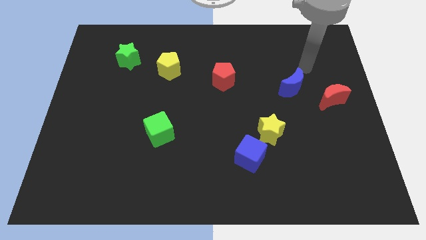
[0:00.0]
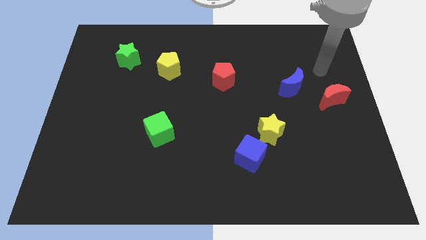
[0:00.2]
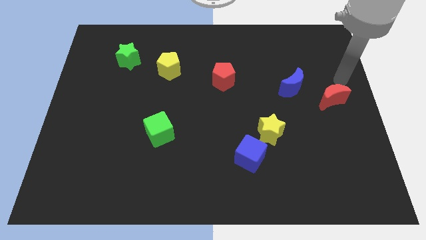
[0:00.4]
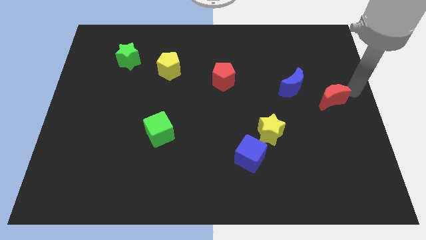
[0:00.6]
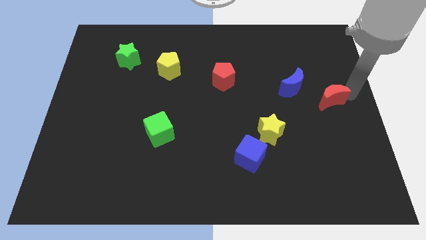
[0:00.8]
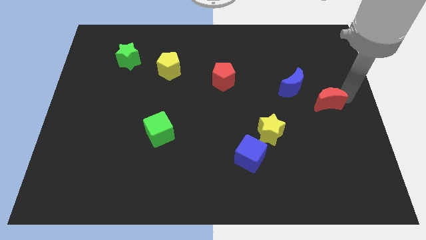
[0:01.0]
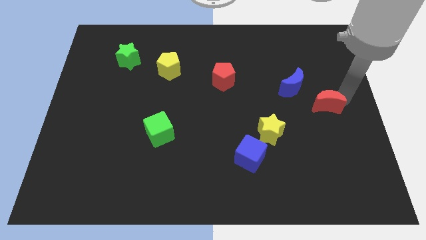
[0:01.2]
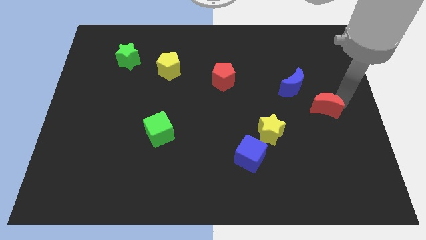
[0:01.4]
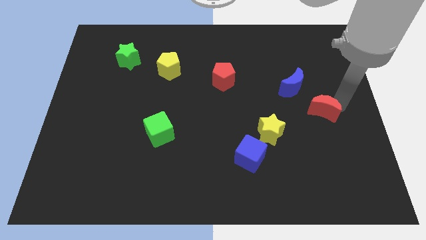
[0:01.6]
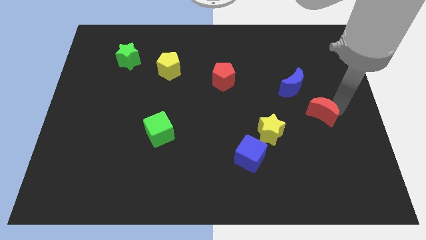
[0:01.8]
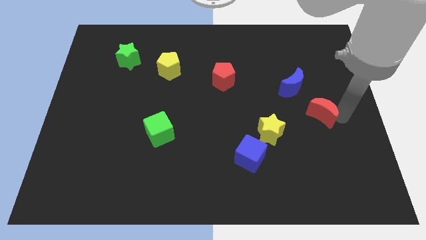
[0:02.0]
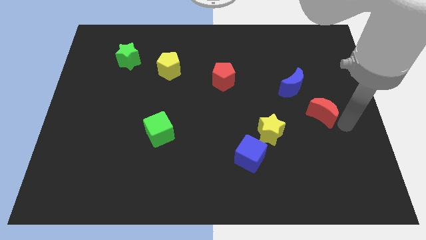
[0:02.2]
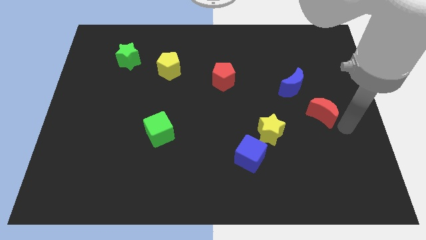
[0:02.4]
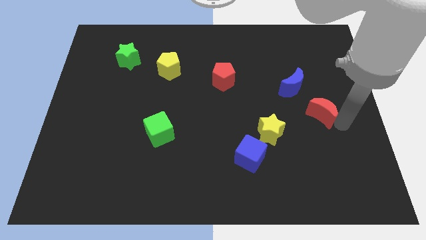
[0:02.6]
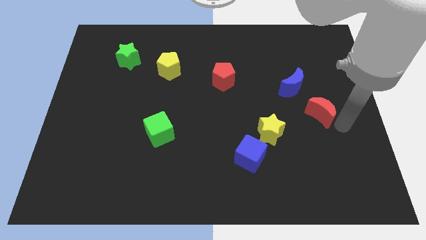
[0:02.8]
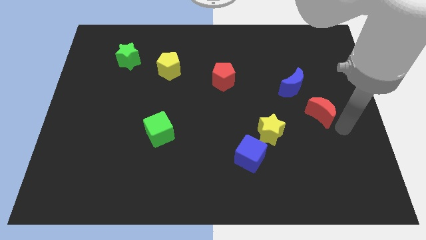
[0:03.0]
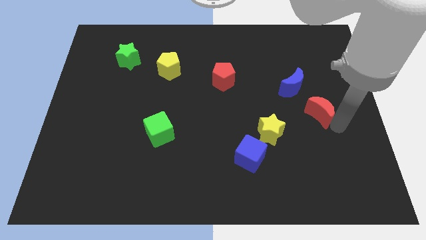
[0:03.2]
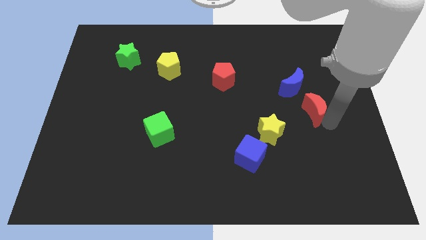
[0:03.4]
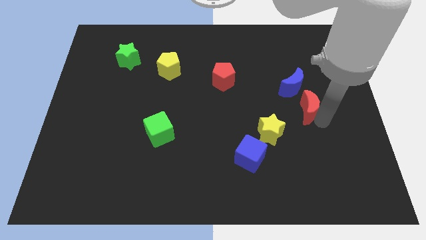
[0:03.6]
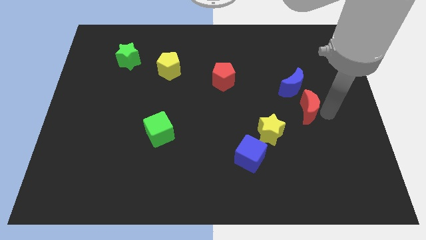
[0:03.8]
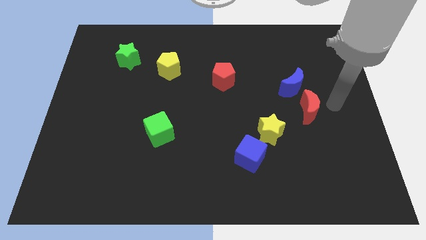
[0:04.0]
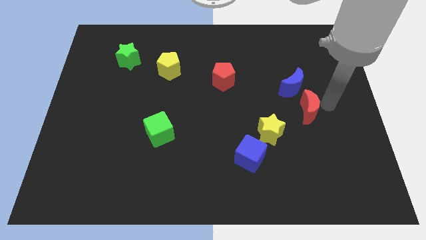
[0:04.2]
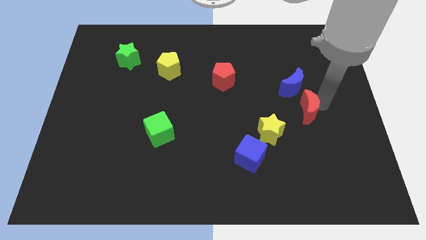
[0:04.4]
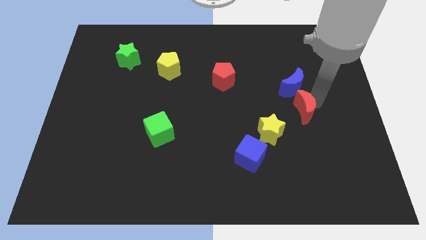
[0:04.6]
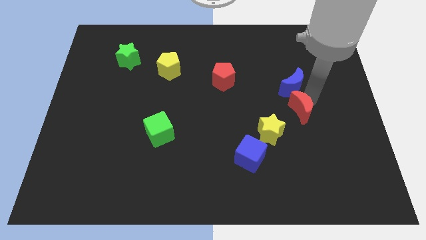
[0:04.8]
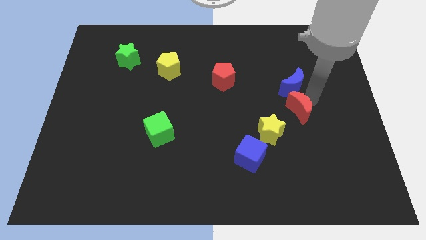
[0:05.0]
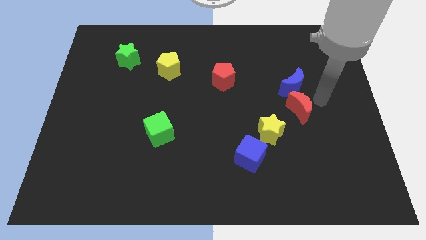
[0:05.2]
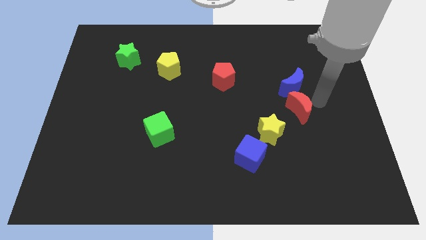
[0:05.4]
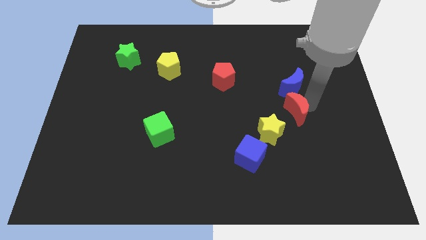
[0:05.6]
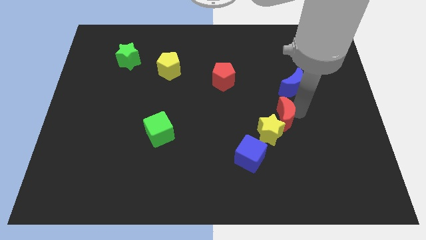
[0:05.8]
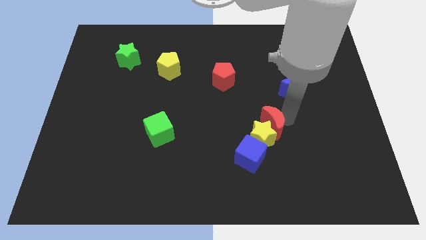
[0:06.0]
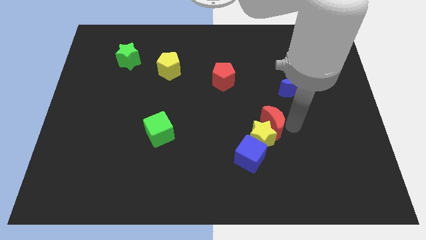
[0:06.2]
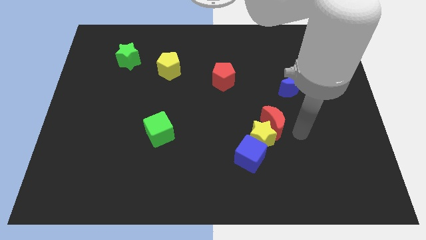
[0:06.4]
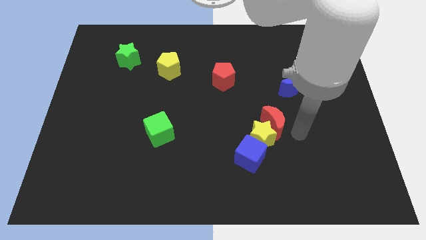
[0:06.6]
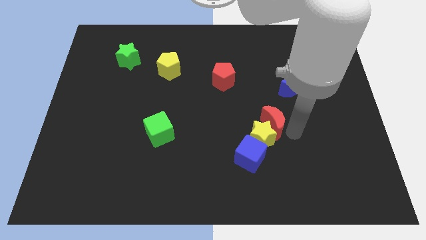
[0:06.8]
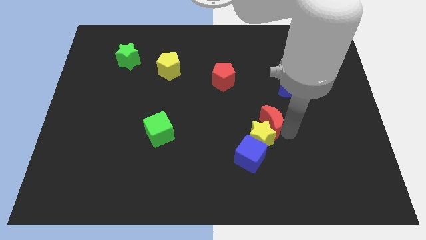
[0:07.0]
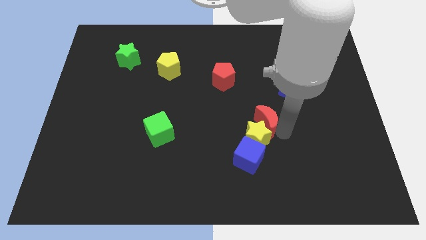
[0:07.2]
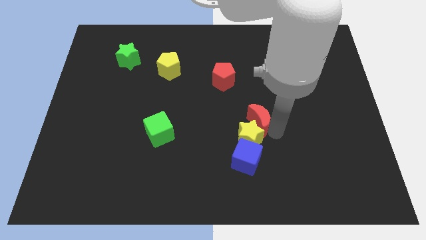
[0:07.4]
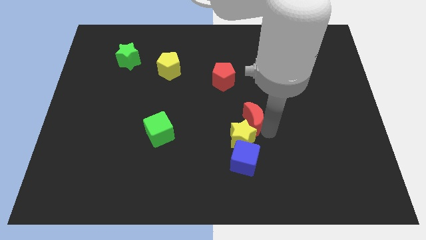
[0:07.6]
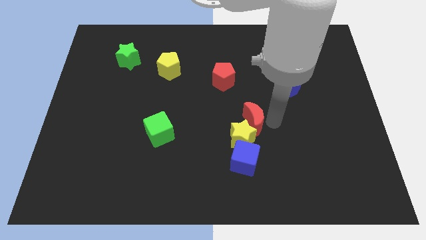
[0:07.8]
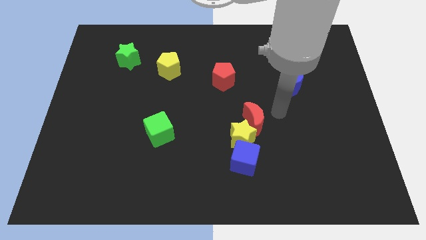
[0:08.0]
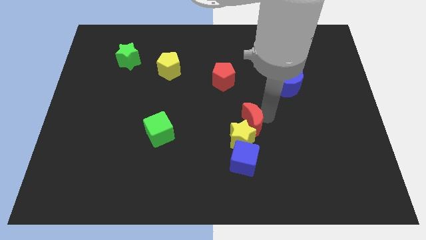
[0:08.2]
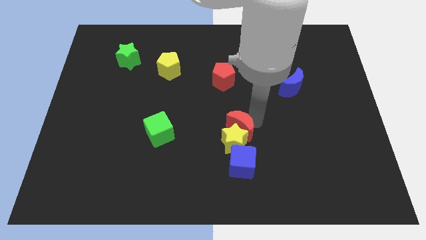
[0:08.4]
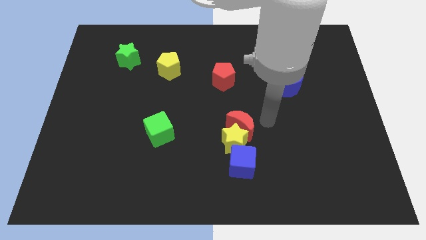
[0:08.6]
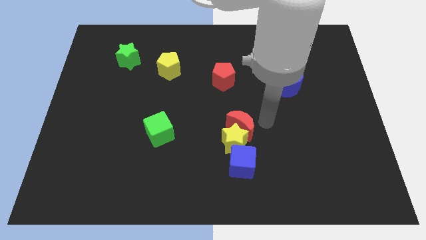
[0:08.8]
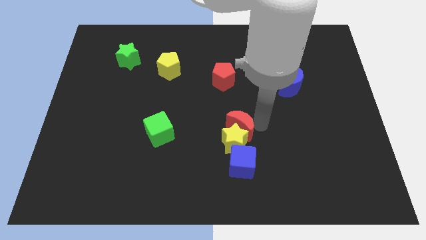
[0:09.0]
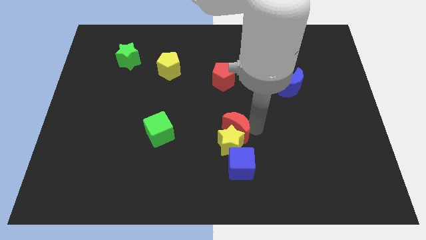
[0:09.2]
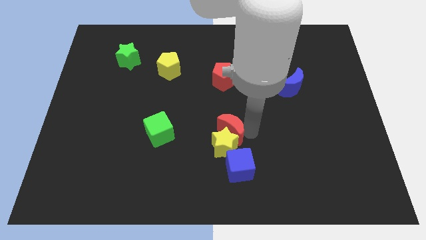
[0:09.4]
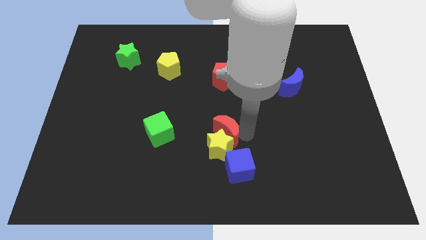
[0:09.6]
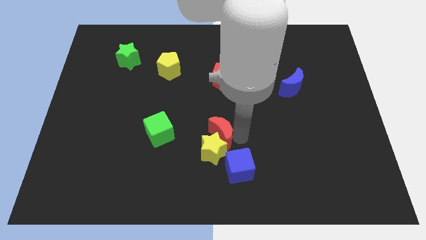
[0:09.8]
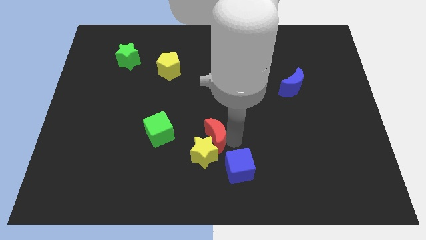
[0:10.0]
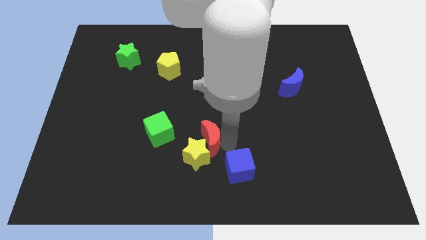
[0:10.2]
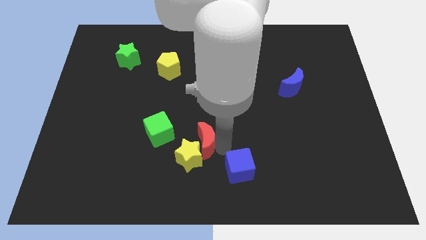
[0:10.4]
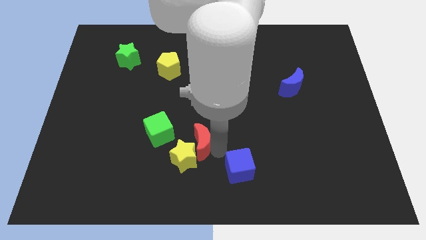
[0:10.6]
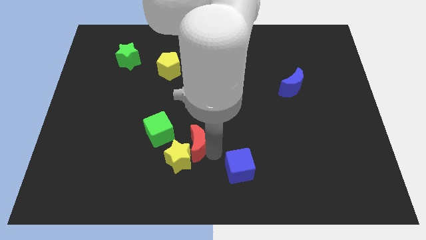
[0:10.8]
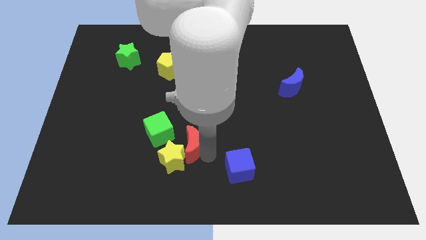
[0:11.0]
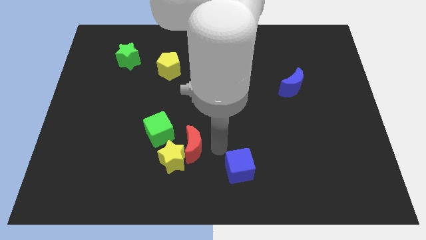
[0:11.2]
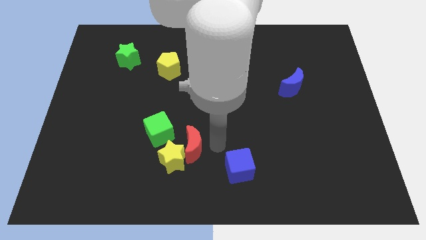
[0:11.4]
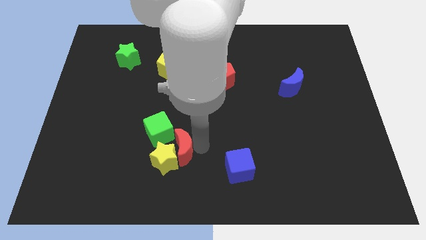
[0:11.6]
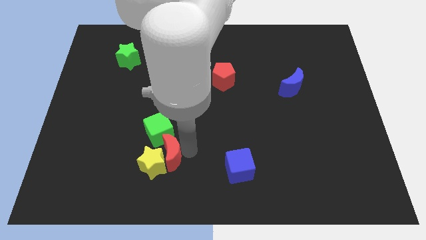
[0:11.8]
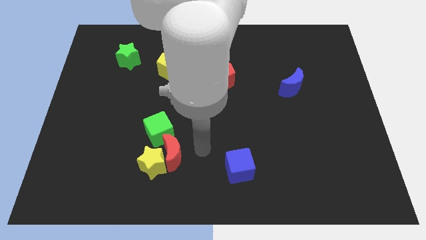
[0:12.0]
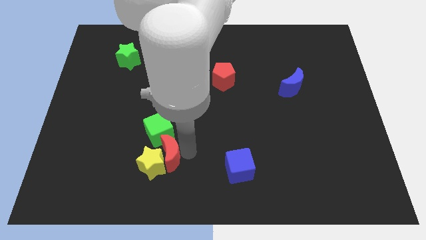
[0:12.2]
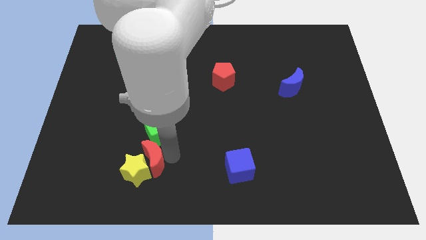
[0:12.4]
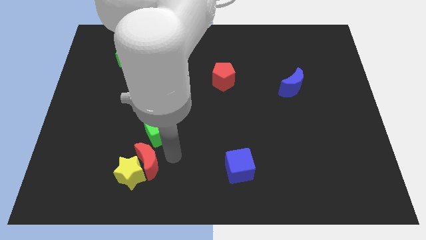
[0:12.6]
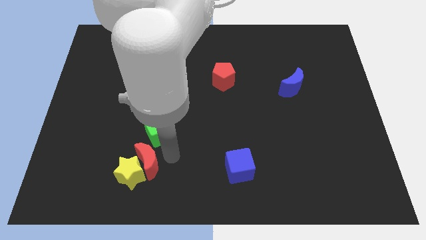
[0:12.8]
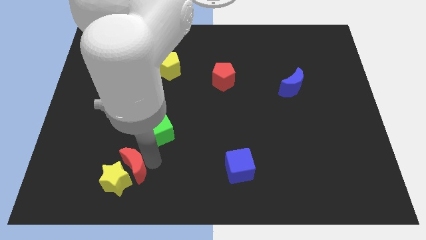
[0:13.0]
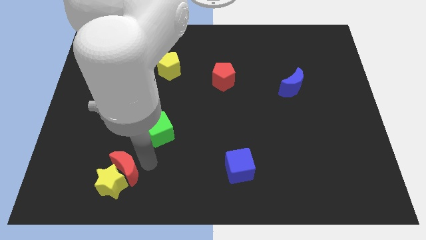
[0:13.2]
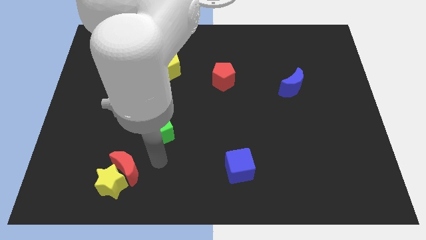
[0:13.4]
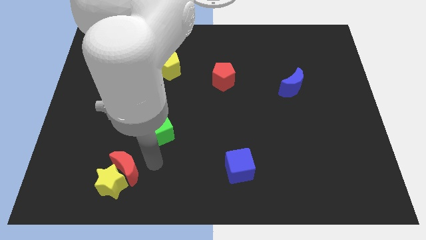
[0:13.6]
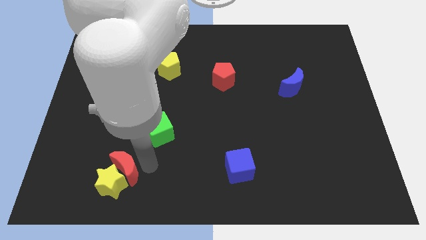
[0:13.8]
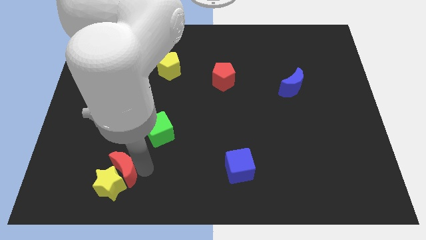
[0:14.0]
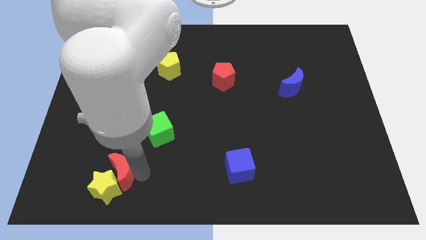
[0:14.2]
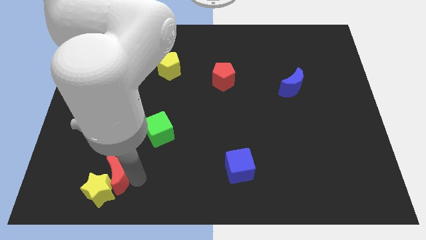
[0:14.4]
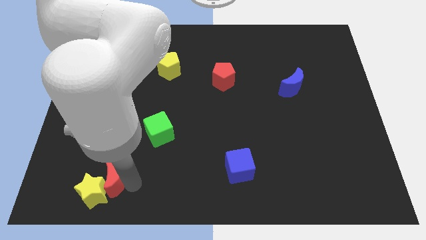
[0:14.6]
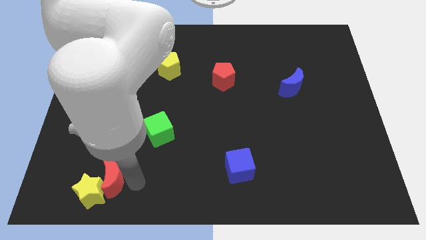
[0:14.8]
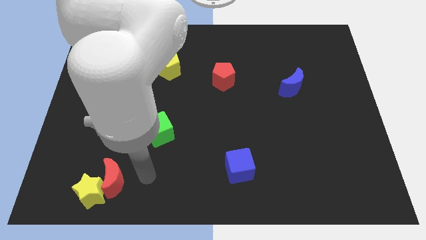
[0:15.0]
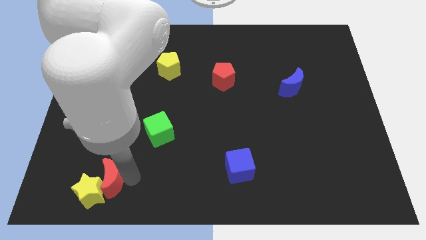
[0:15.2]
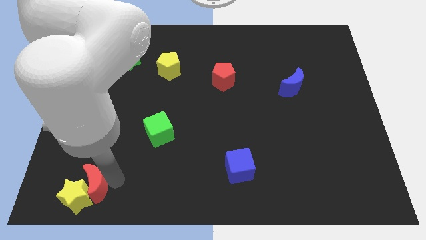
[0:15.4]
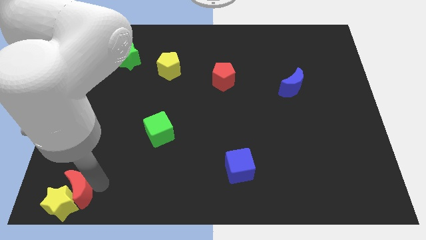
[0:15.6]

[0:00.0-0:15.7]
slide the red moon to the bottom left
